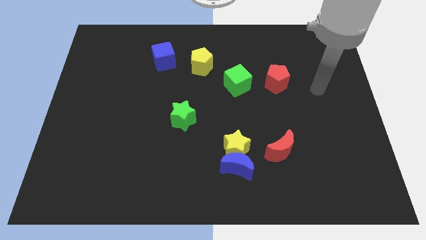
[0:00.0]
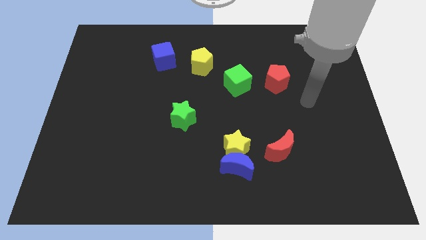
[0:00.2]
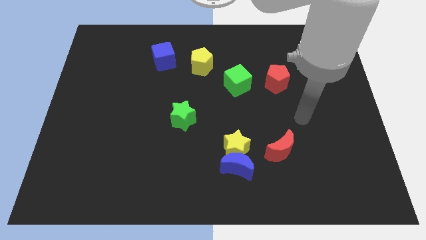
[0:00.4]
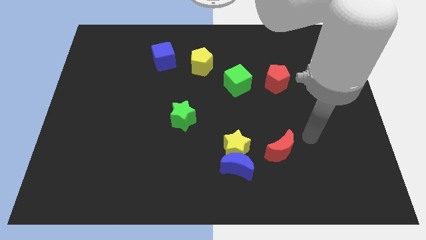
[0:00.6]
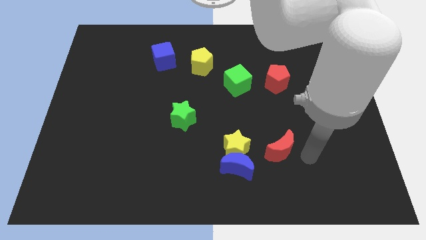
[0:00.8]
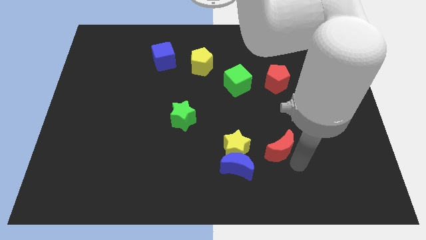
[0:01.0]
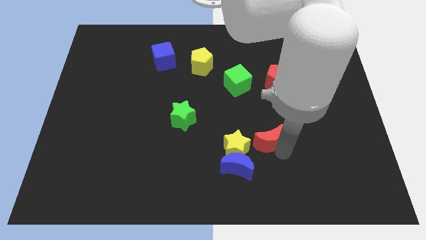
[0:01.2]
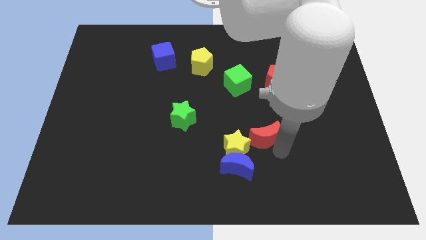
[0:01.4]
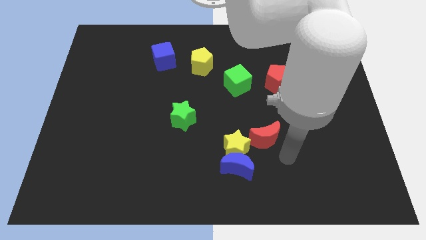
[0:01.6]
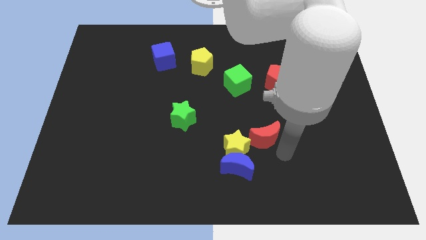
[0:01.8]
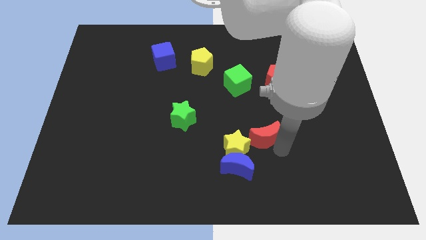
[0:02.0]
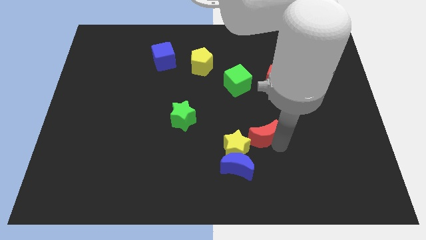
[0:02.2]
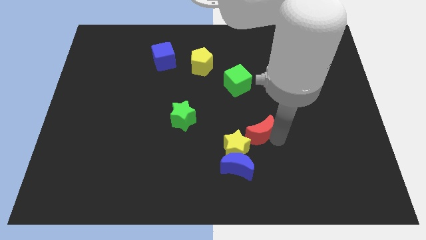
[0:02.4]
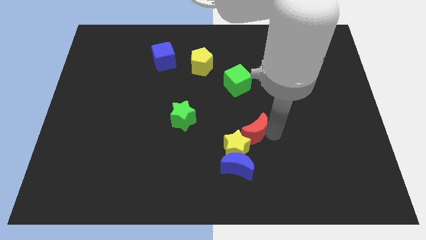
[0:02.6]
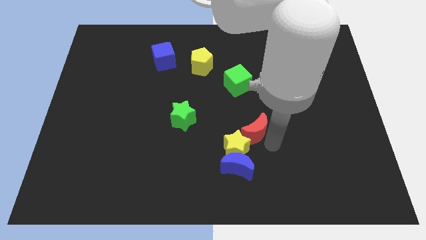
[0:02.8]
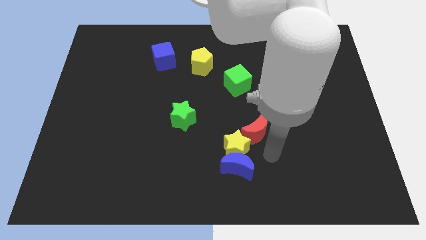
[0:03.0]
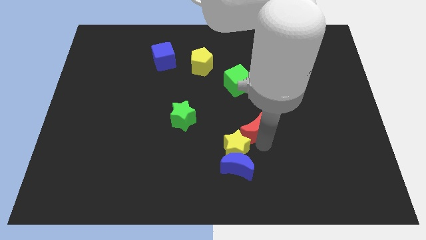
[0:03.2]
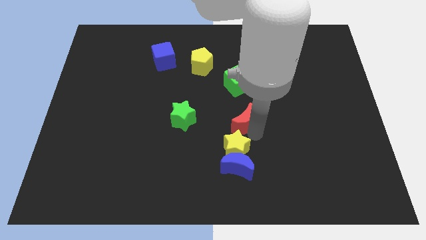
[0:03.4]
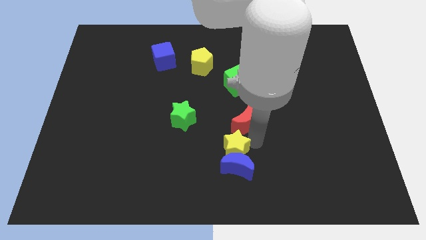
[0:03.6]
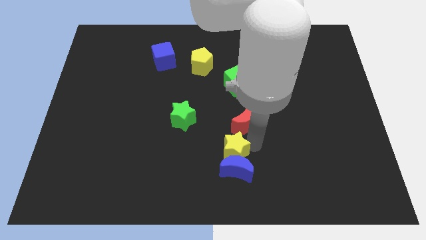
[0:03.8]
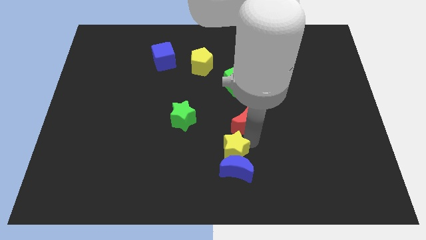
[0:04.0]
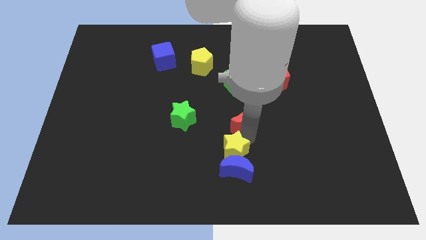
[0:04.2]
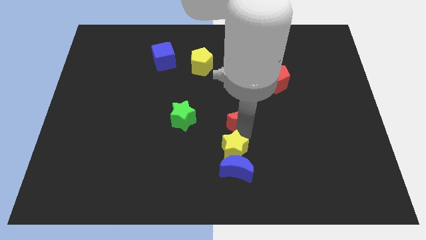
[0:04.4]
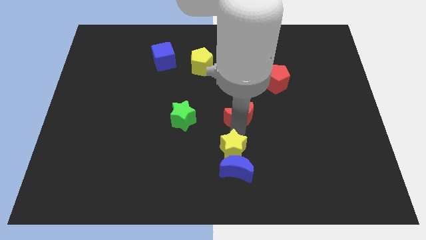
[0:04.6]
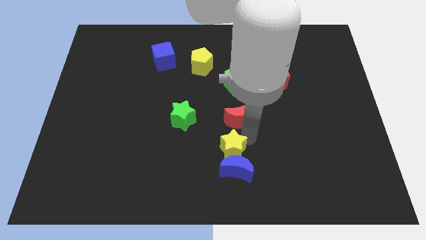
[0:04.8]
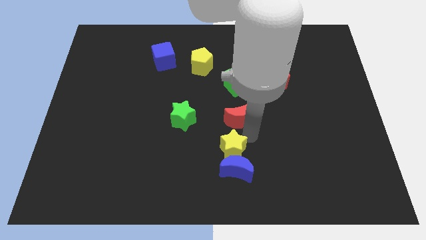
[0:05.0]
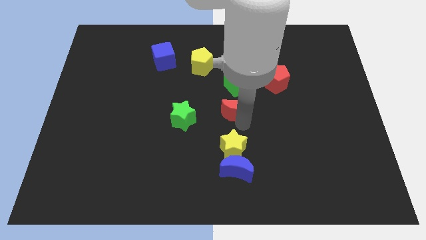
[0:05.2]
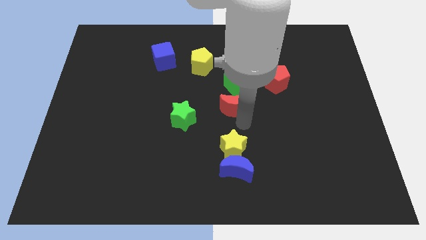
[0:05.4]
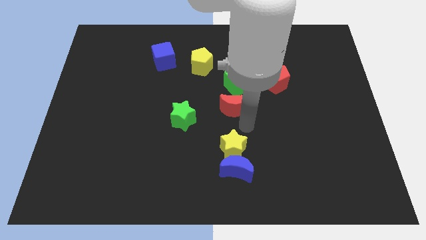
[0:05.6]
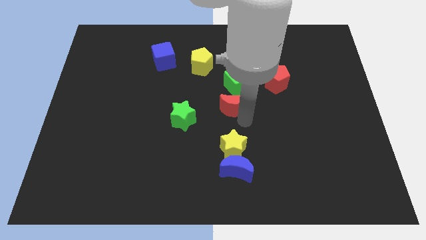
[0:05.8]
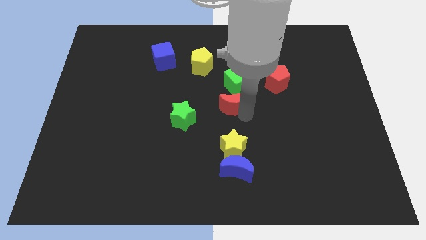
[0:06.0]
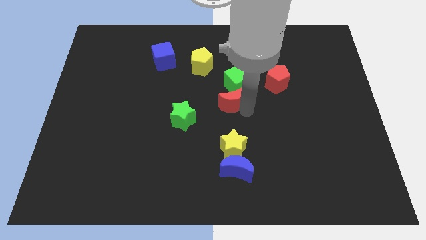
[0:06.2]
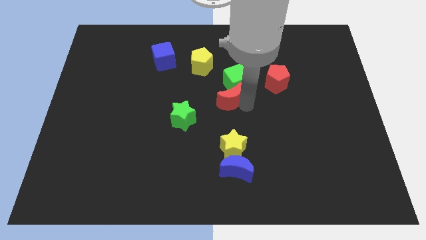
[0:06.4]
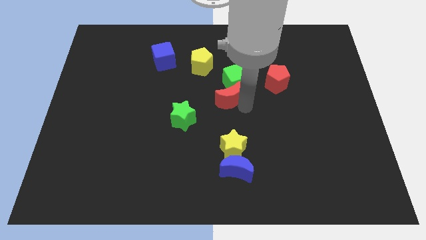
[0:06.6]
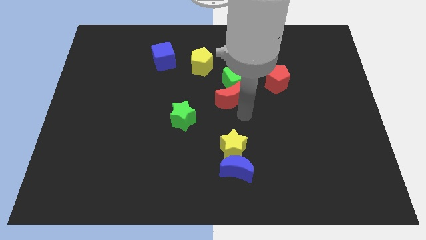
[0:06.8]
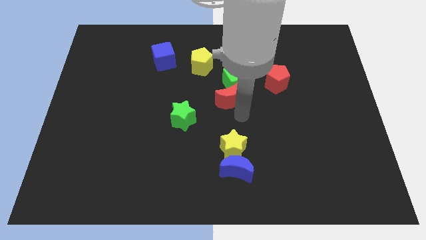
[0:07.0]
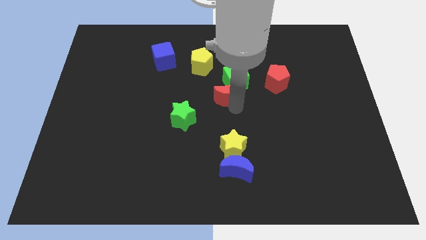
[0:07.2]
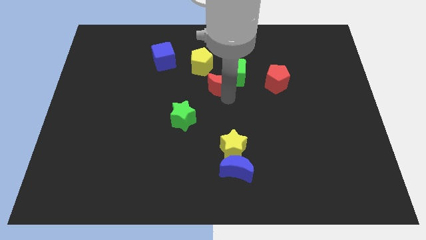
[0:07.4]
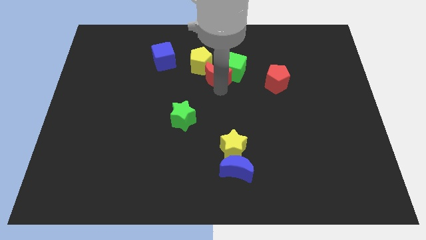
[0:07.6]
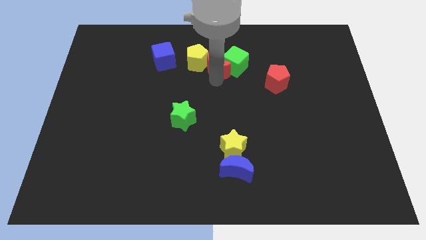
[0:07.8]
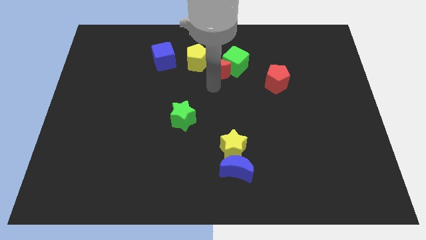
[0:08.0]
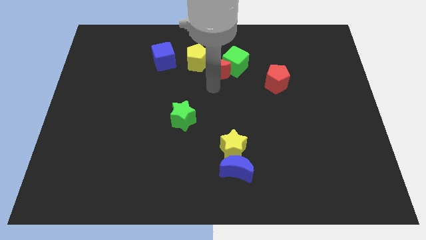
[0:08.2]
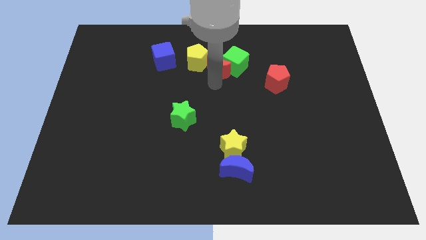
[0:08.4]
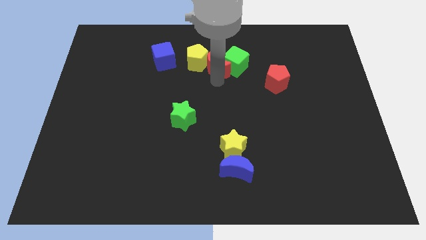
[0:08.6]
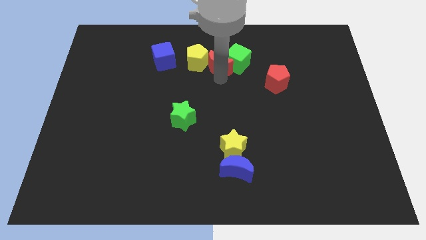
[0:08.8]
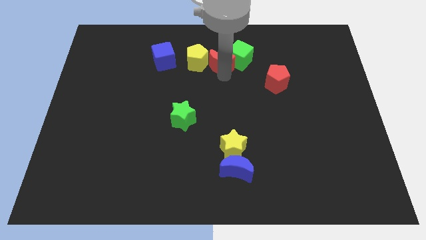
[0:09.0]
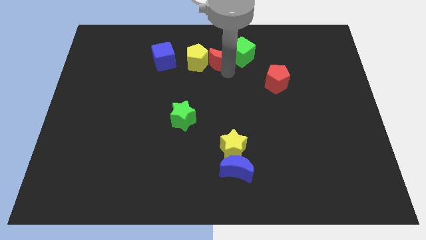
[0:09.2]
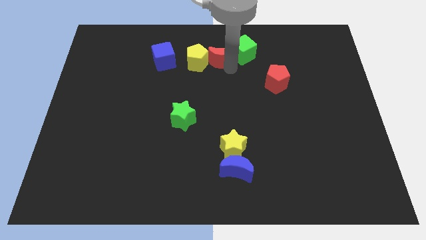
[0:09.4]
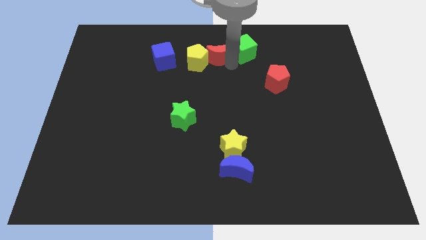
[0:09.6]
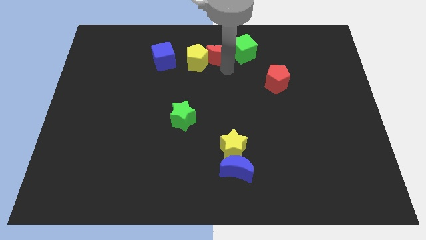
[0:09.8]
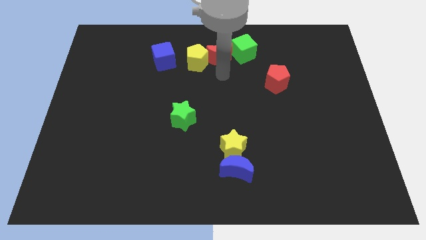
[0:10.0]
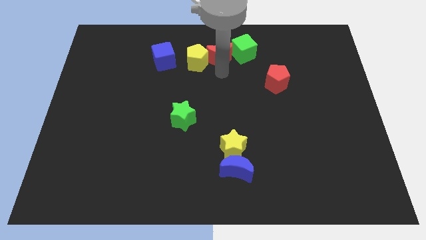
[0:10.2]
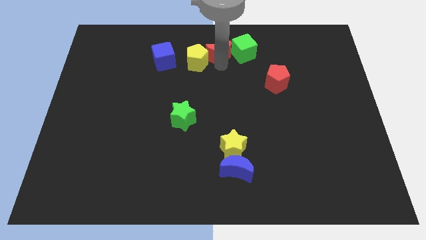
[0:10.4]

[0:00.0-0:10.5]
push the red moon to the top side

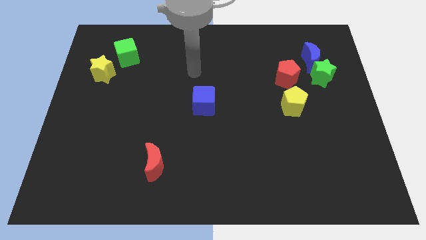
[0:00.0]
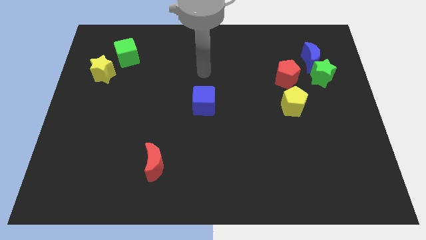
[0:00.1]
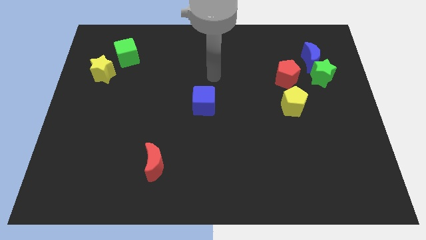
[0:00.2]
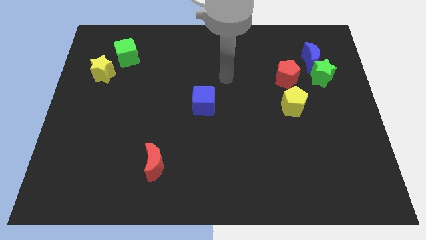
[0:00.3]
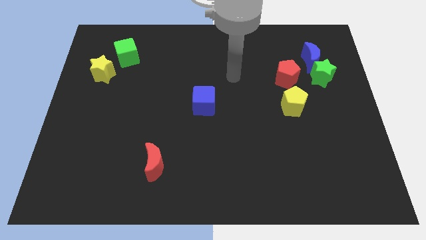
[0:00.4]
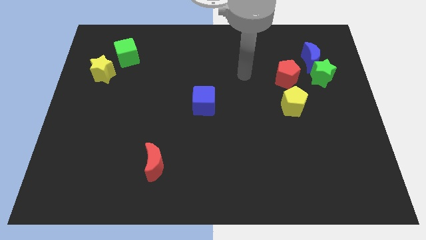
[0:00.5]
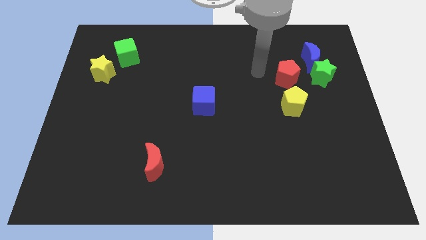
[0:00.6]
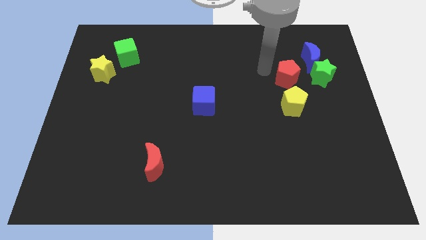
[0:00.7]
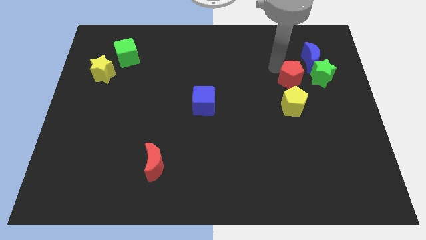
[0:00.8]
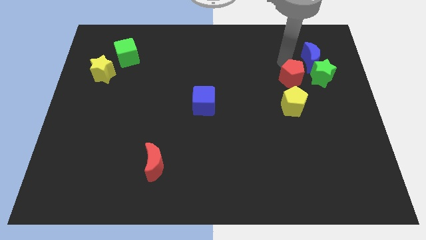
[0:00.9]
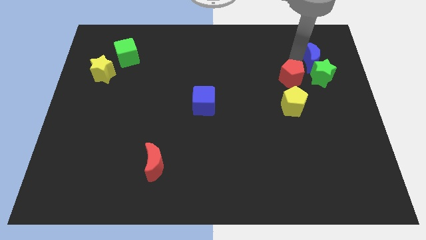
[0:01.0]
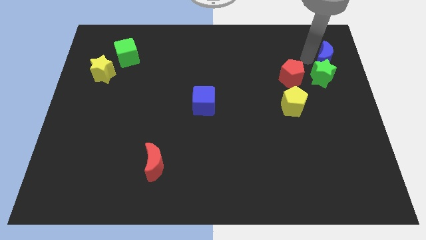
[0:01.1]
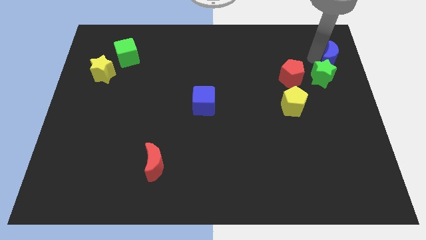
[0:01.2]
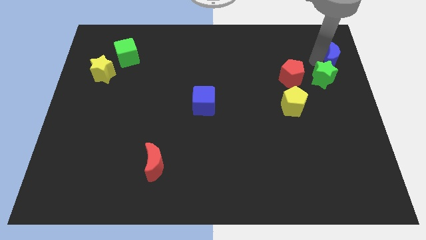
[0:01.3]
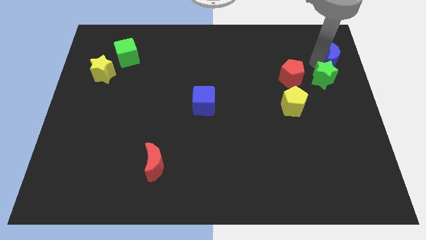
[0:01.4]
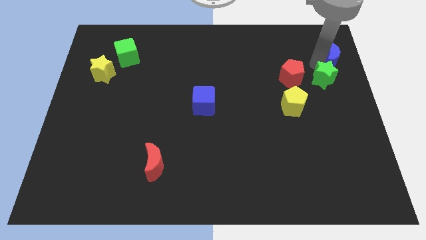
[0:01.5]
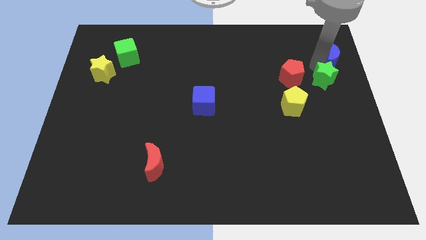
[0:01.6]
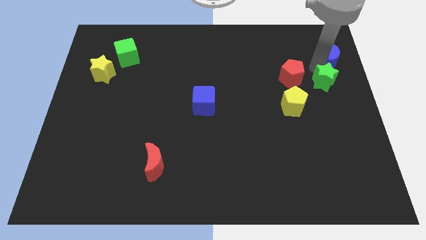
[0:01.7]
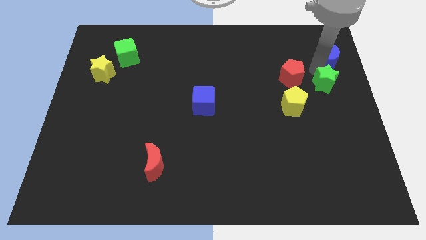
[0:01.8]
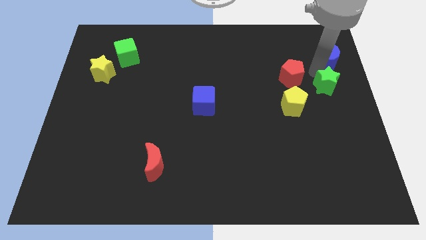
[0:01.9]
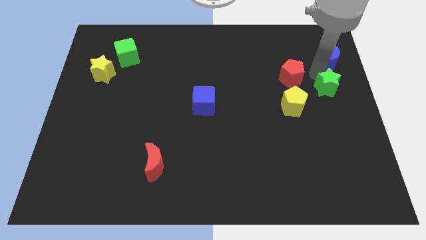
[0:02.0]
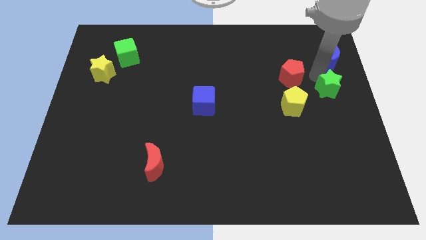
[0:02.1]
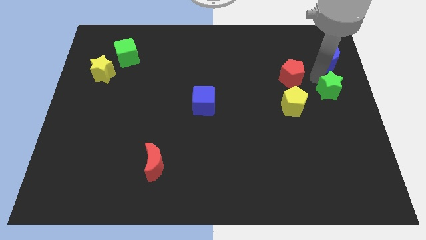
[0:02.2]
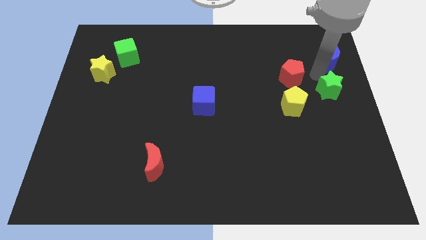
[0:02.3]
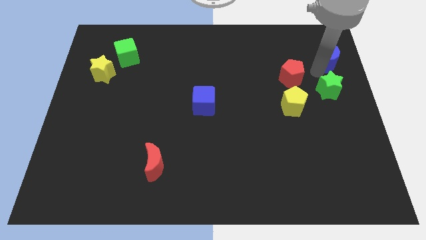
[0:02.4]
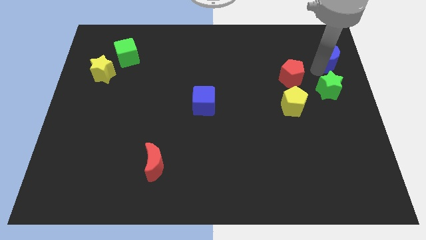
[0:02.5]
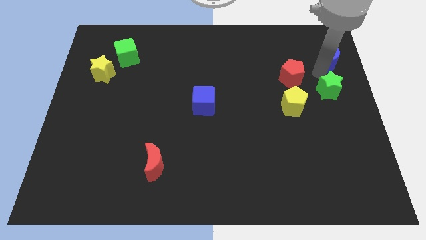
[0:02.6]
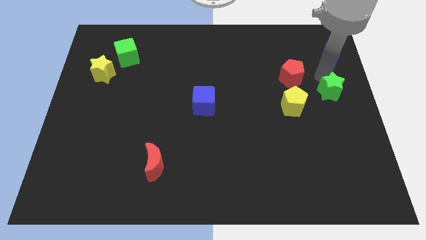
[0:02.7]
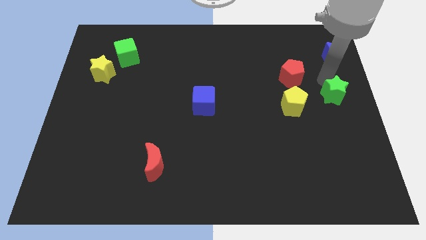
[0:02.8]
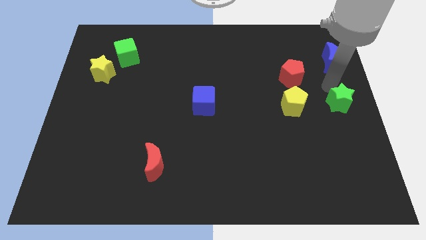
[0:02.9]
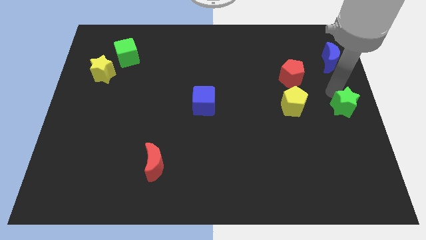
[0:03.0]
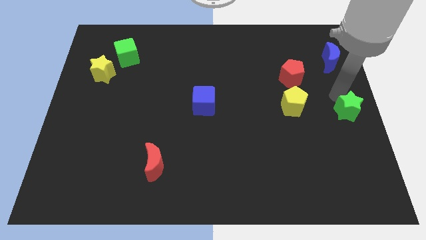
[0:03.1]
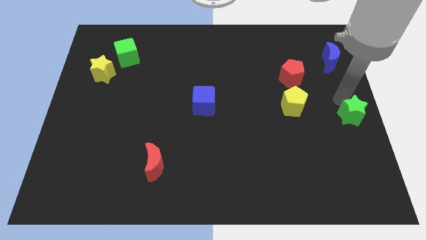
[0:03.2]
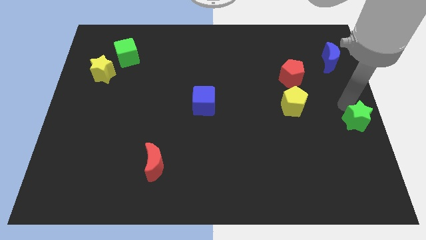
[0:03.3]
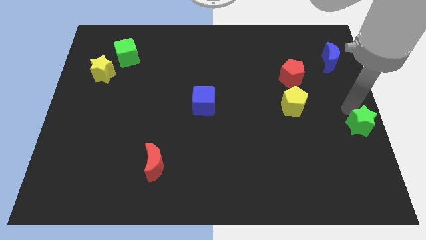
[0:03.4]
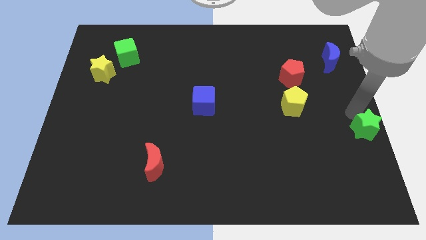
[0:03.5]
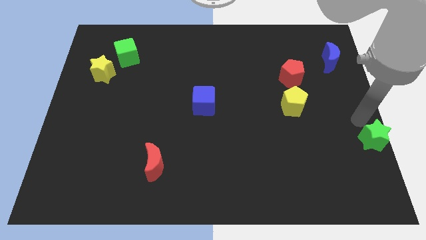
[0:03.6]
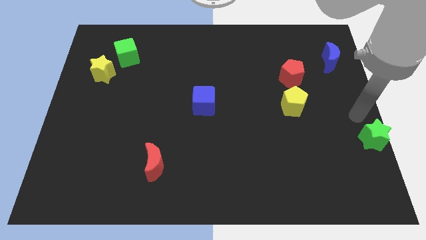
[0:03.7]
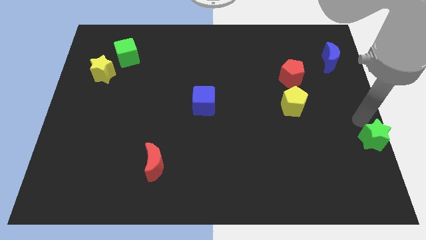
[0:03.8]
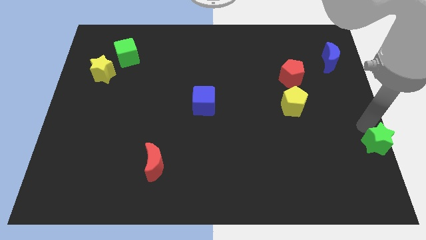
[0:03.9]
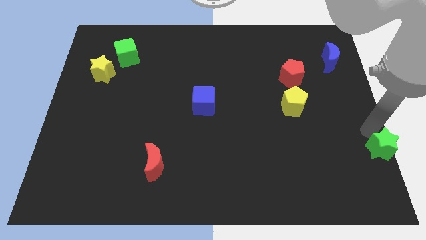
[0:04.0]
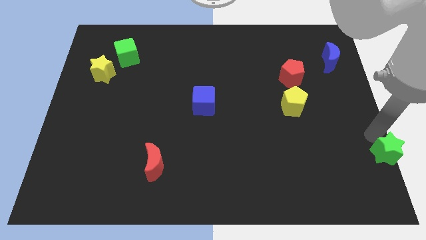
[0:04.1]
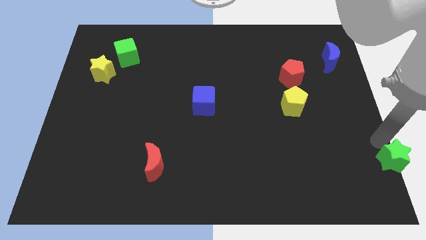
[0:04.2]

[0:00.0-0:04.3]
slide the green star to the bottom right corner
